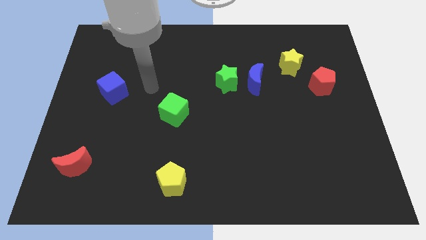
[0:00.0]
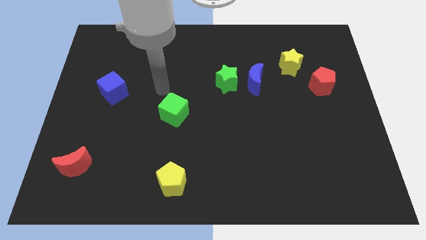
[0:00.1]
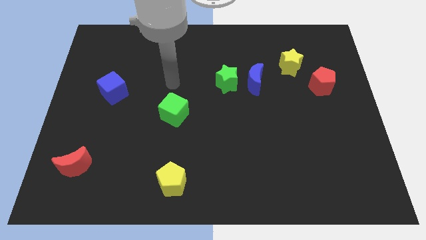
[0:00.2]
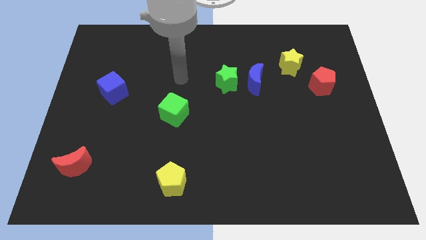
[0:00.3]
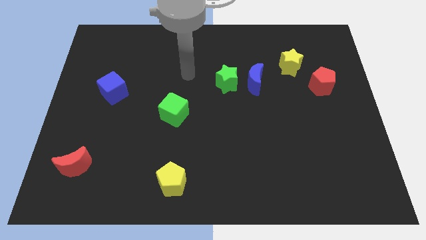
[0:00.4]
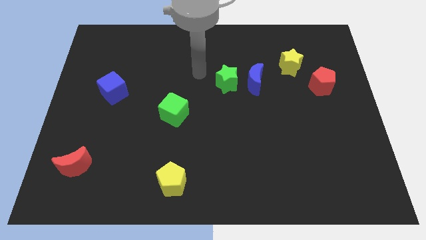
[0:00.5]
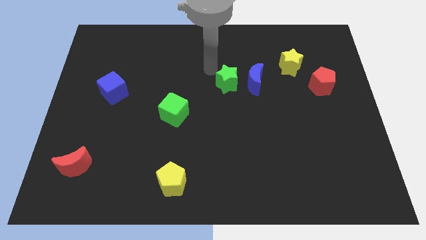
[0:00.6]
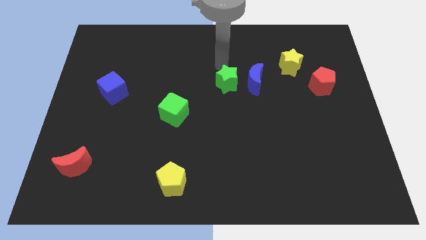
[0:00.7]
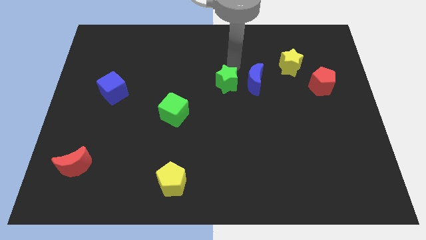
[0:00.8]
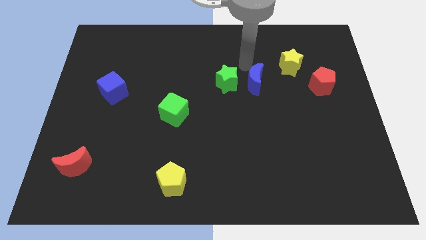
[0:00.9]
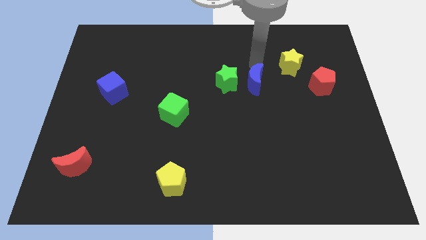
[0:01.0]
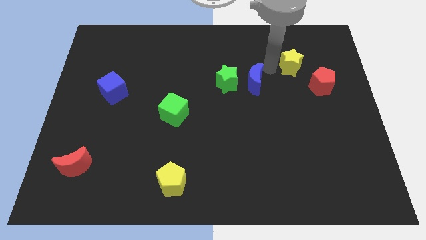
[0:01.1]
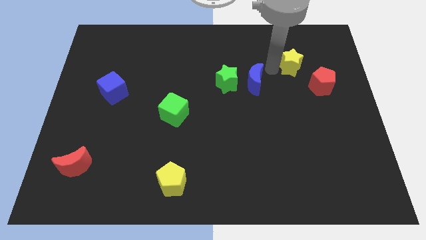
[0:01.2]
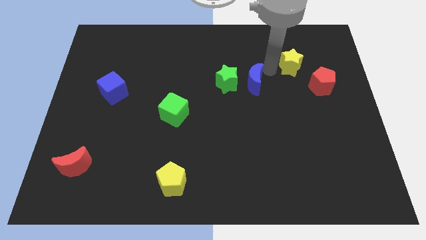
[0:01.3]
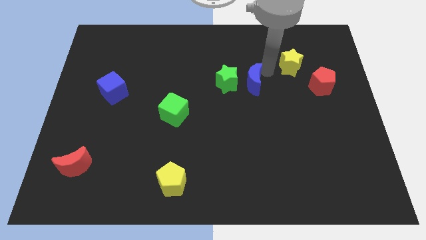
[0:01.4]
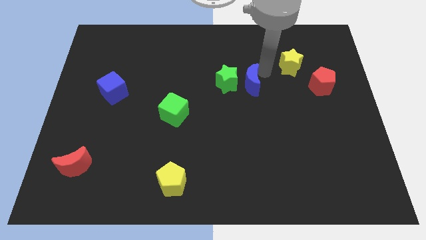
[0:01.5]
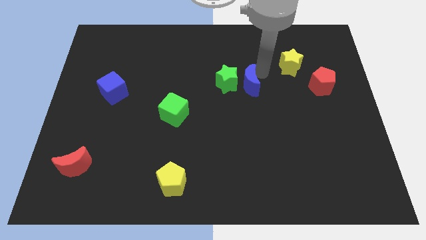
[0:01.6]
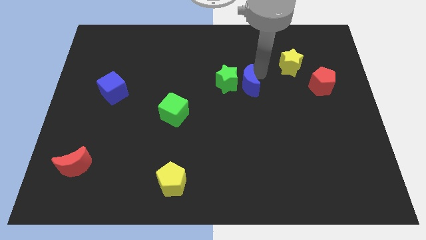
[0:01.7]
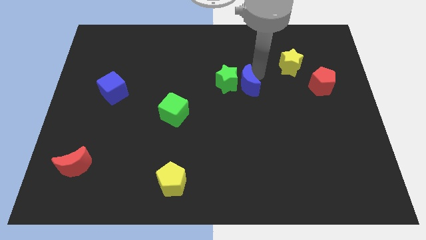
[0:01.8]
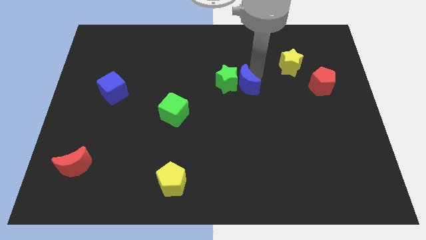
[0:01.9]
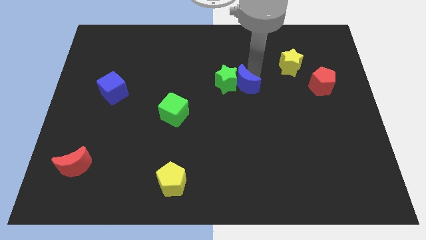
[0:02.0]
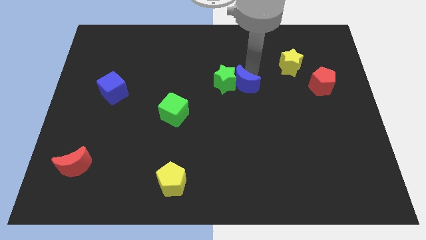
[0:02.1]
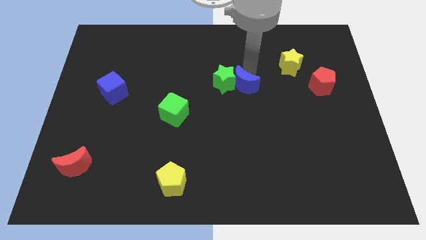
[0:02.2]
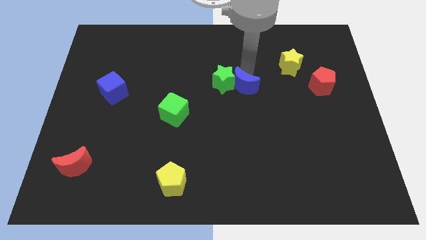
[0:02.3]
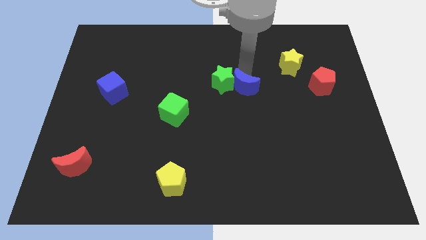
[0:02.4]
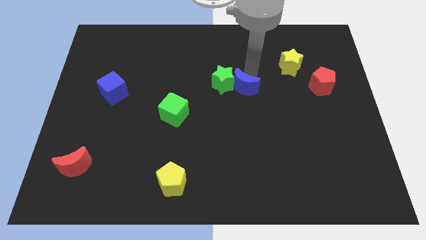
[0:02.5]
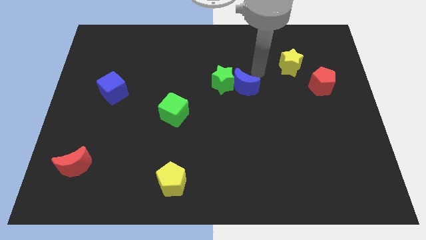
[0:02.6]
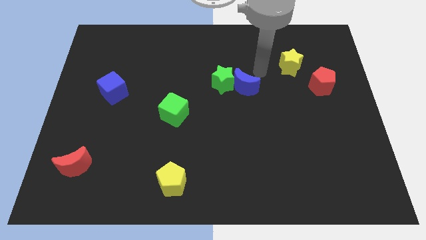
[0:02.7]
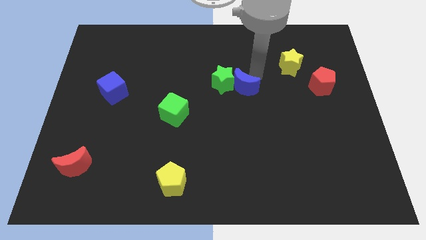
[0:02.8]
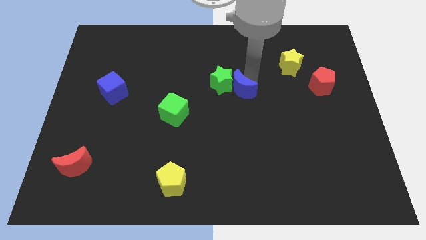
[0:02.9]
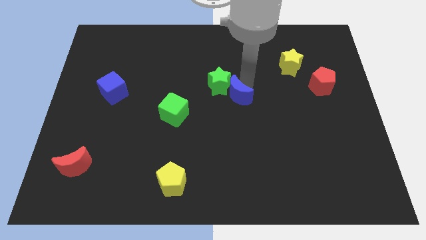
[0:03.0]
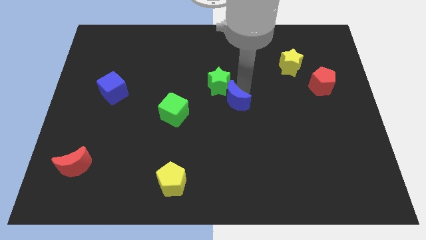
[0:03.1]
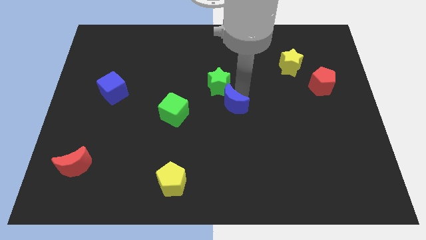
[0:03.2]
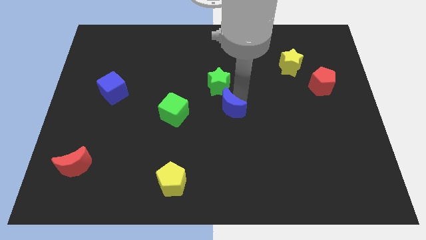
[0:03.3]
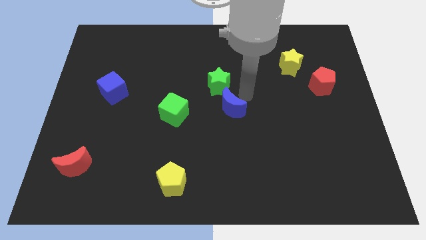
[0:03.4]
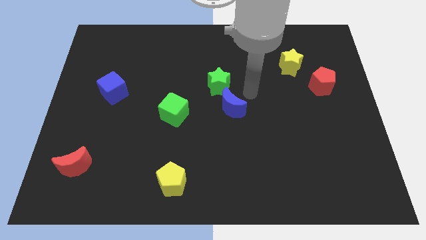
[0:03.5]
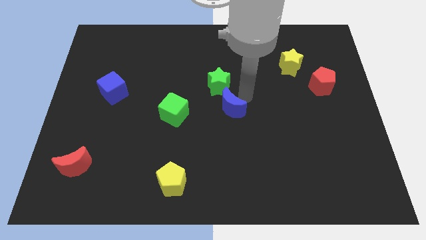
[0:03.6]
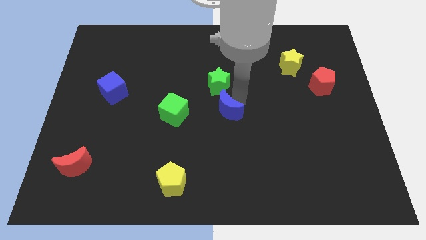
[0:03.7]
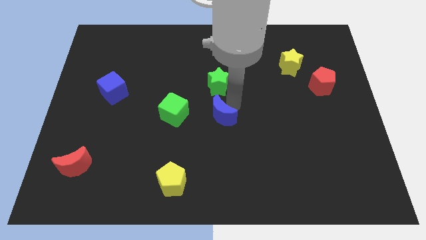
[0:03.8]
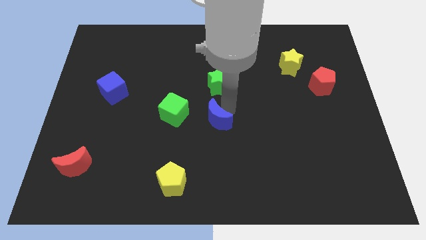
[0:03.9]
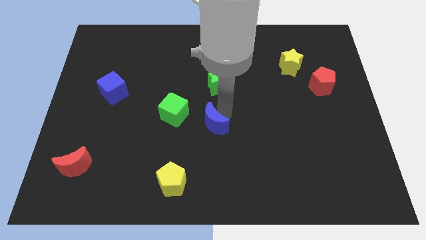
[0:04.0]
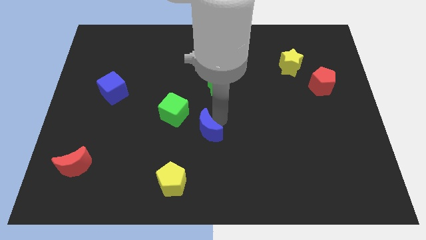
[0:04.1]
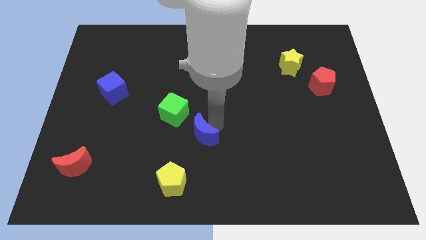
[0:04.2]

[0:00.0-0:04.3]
slide the blue moon diagonally downwards and left

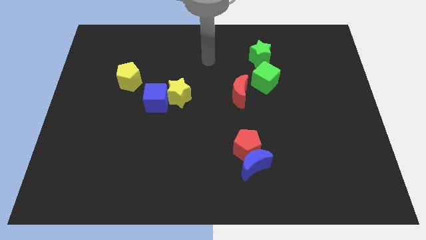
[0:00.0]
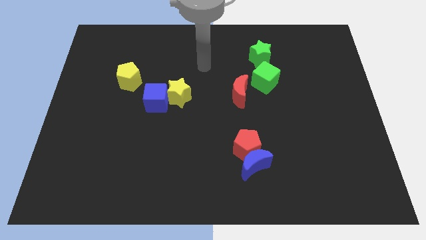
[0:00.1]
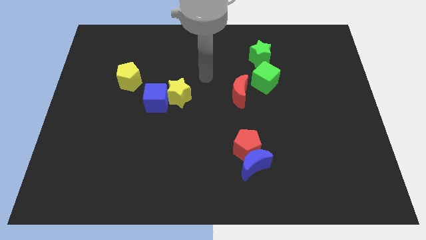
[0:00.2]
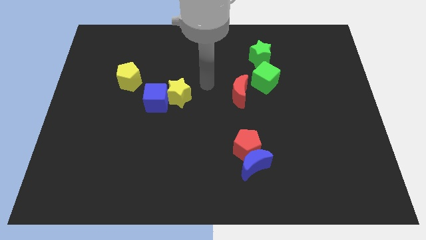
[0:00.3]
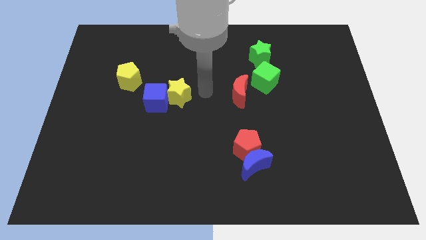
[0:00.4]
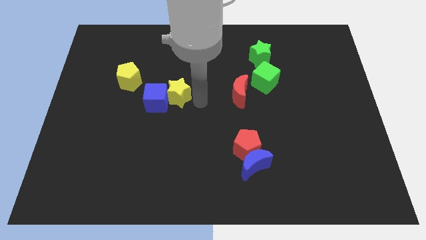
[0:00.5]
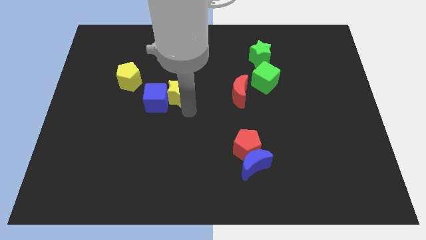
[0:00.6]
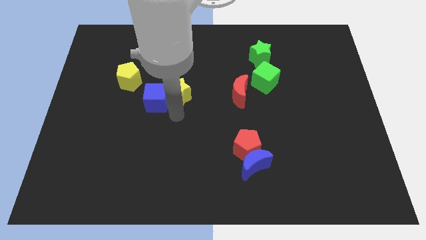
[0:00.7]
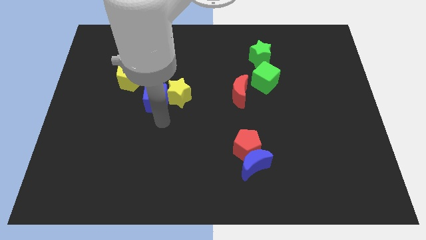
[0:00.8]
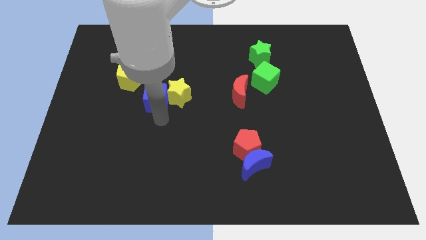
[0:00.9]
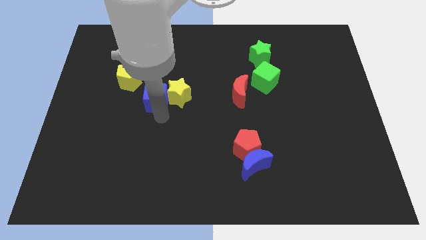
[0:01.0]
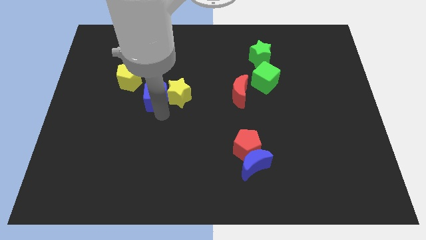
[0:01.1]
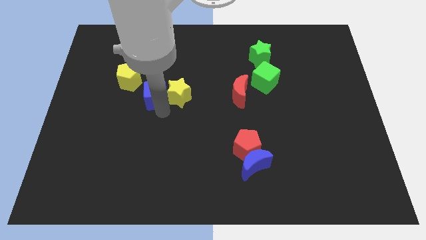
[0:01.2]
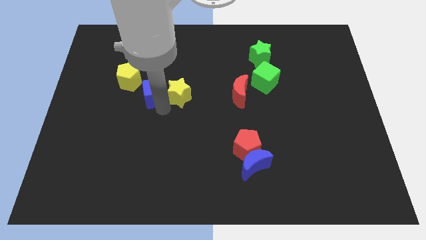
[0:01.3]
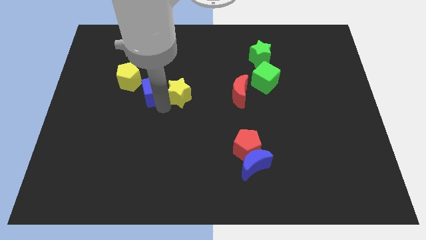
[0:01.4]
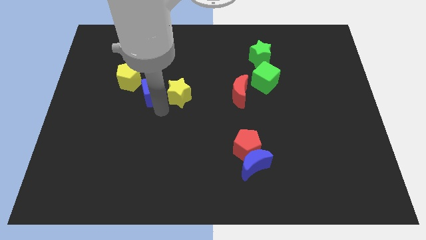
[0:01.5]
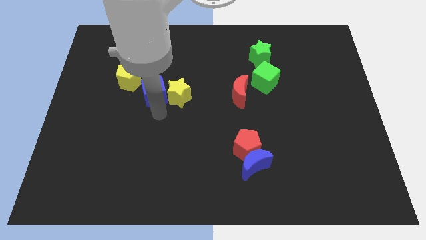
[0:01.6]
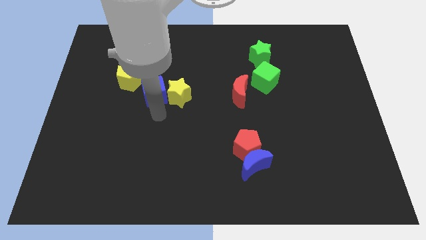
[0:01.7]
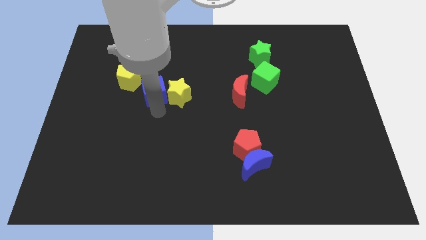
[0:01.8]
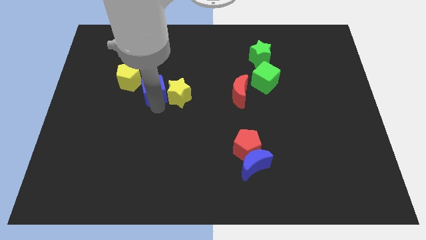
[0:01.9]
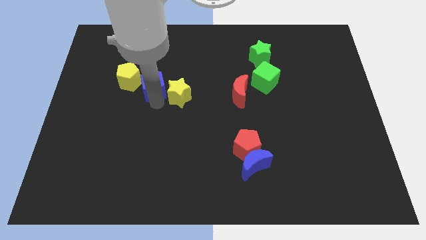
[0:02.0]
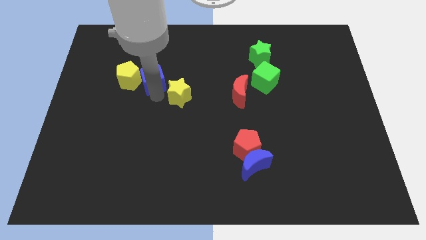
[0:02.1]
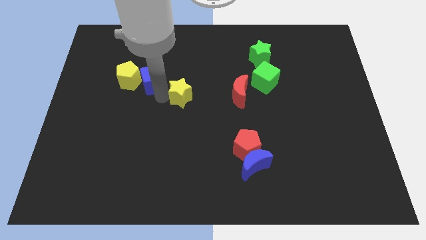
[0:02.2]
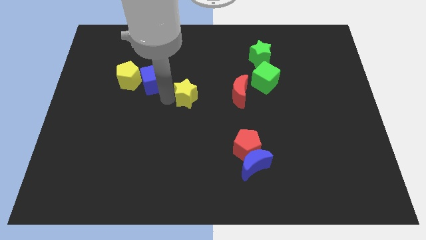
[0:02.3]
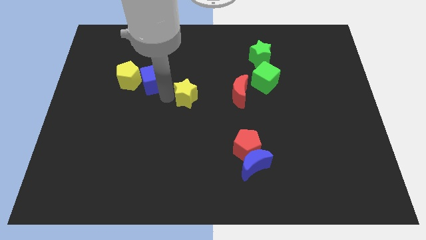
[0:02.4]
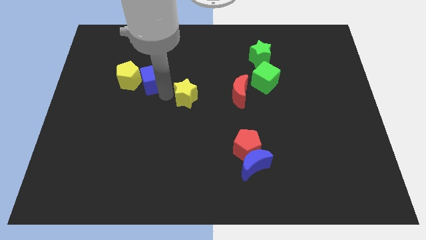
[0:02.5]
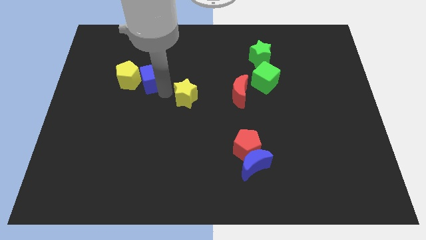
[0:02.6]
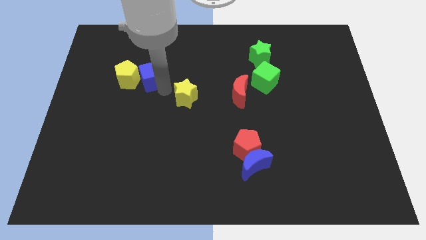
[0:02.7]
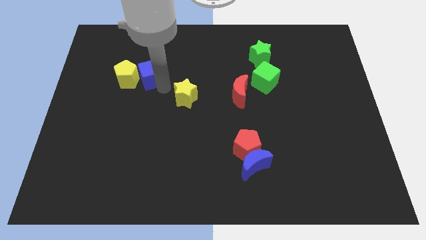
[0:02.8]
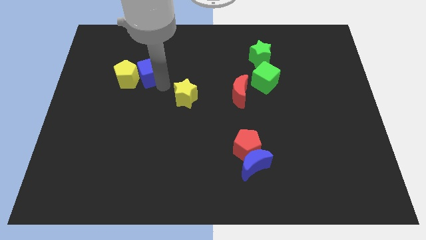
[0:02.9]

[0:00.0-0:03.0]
slide the blue cube diagonally upwards and left somewhat

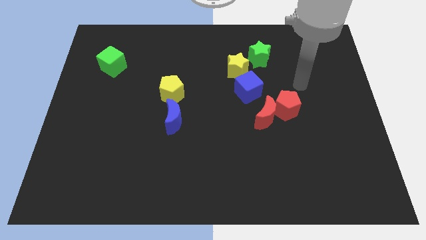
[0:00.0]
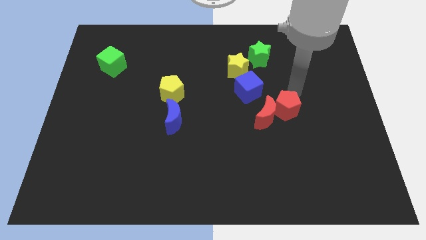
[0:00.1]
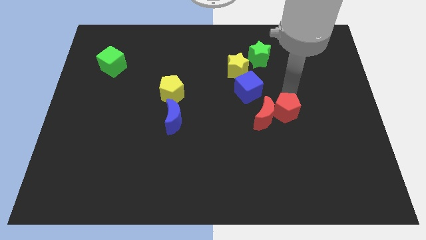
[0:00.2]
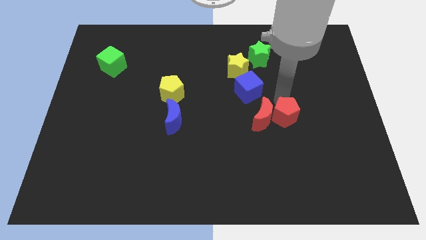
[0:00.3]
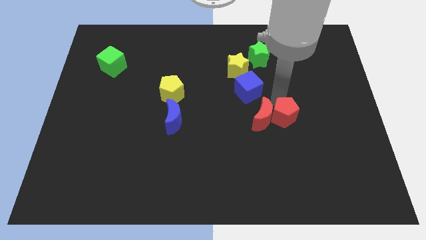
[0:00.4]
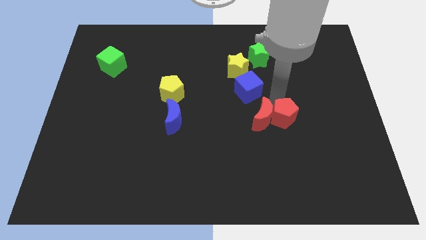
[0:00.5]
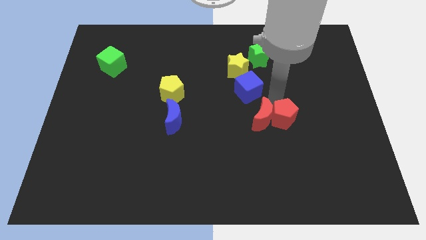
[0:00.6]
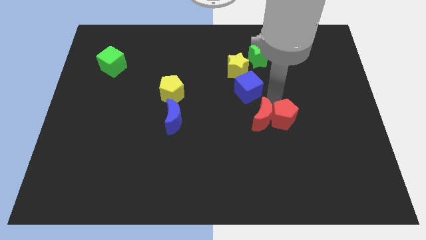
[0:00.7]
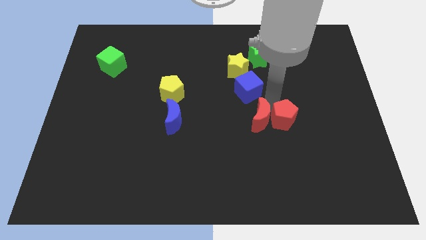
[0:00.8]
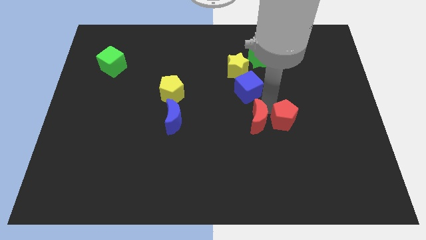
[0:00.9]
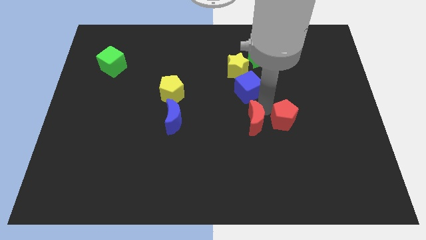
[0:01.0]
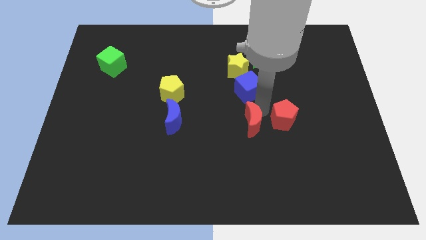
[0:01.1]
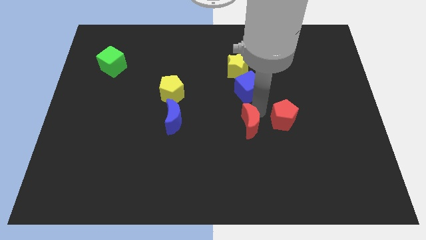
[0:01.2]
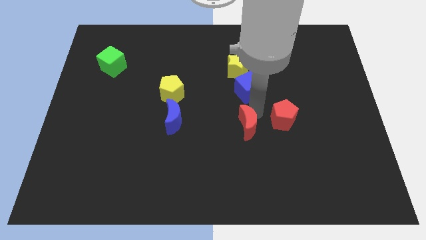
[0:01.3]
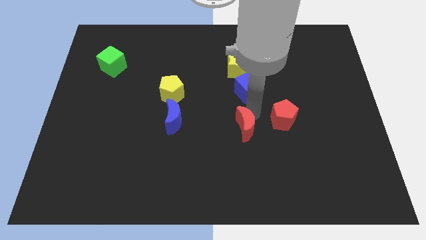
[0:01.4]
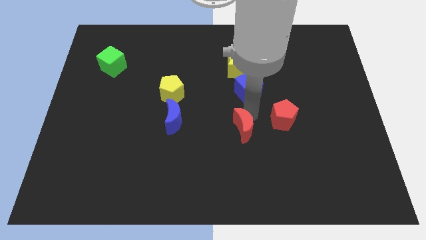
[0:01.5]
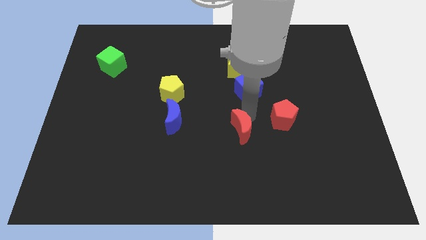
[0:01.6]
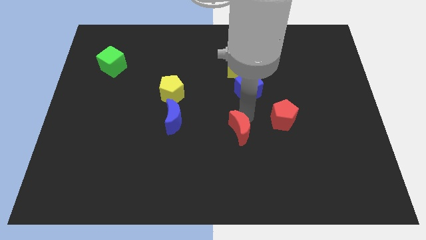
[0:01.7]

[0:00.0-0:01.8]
slightly slide the red moon down and to the left
